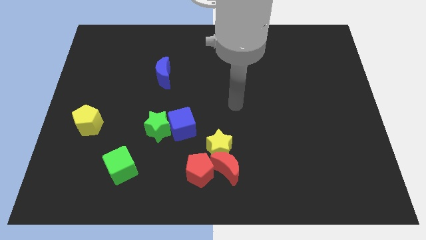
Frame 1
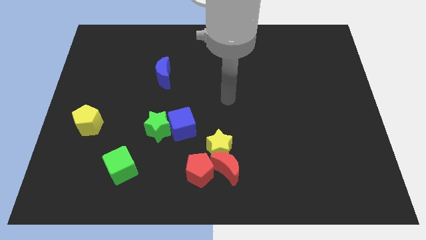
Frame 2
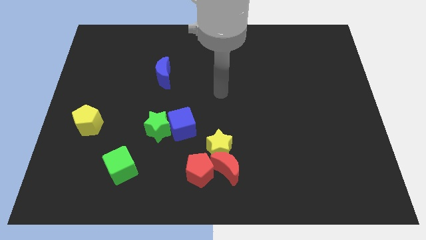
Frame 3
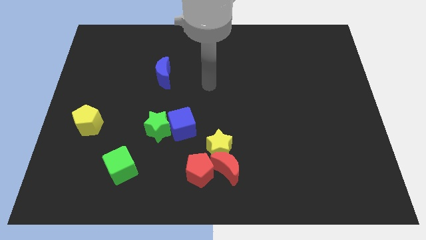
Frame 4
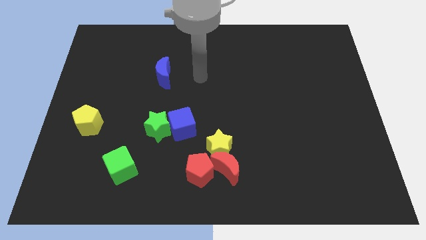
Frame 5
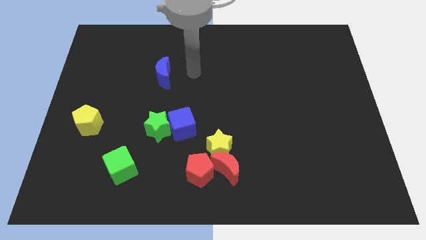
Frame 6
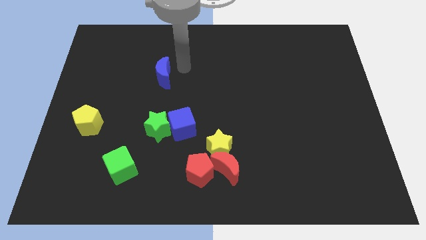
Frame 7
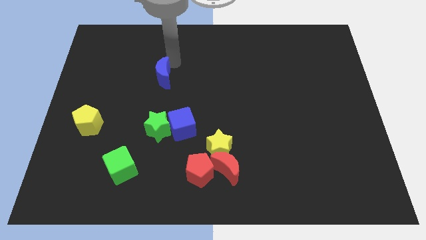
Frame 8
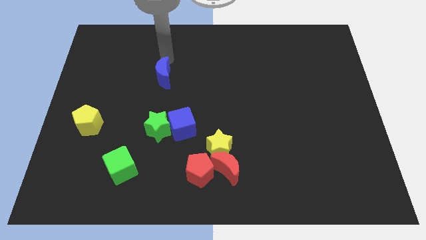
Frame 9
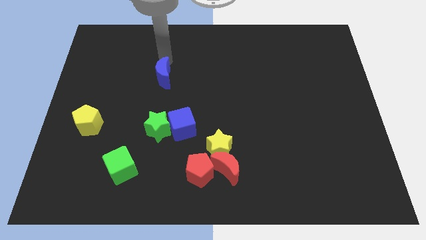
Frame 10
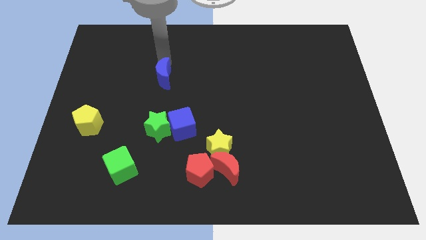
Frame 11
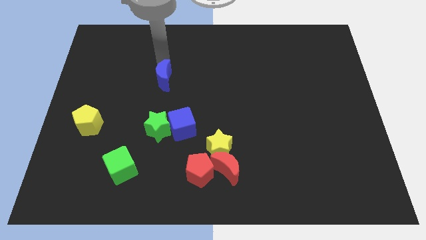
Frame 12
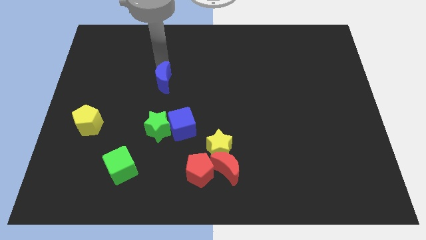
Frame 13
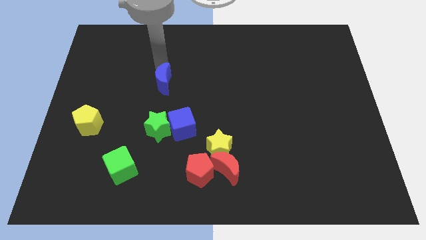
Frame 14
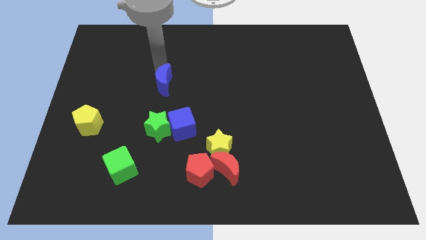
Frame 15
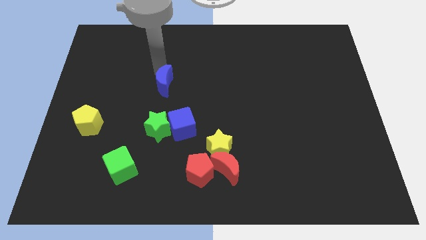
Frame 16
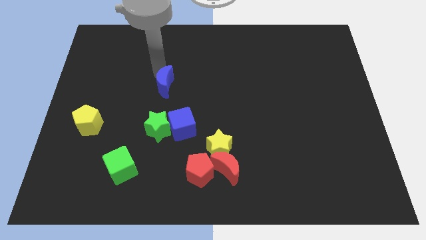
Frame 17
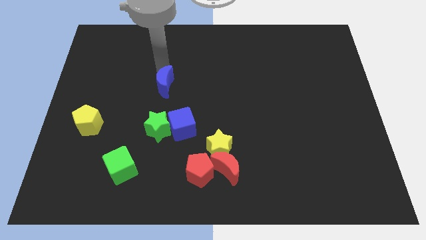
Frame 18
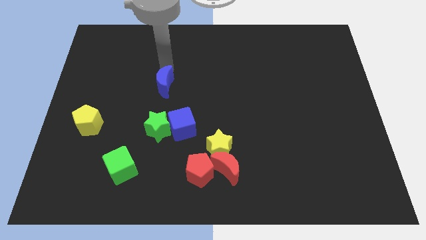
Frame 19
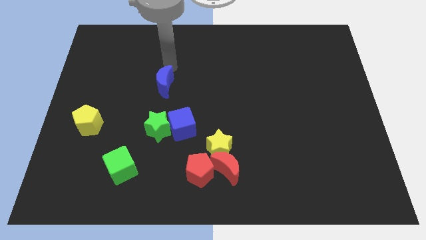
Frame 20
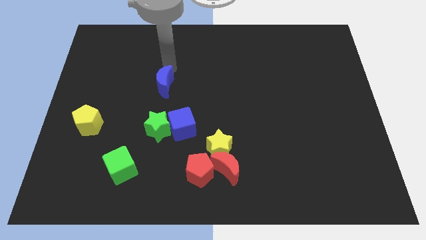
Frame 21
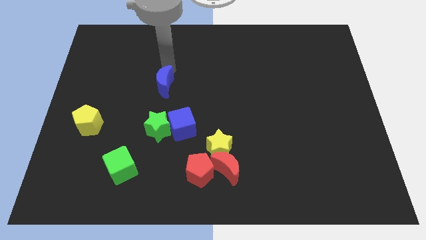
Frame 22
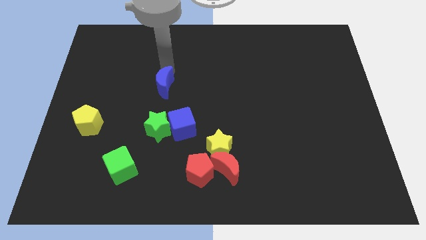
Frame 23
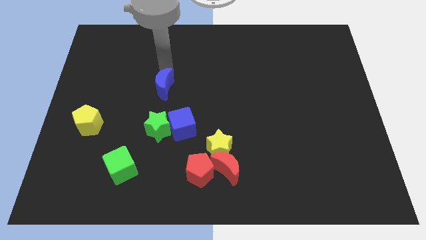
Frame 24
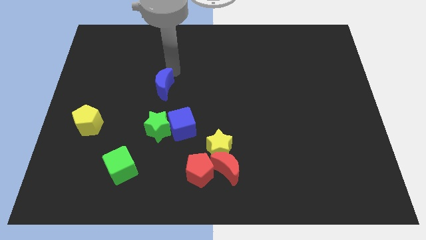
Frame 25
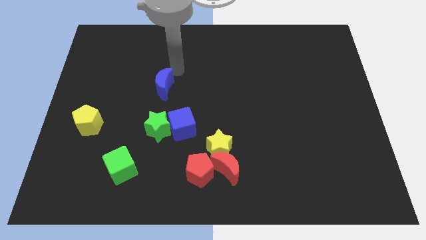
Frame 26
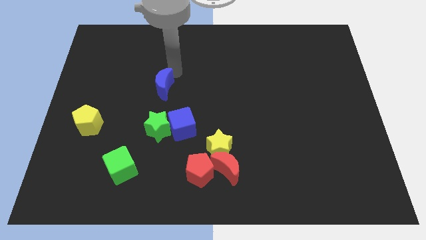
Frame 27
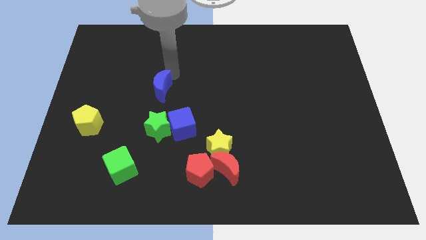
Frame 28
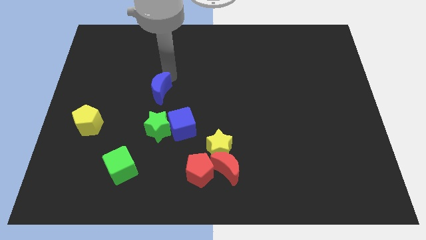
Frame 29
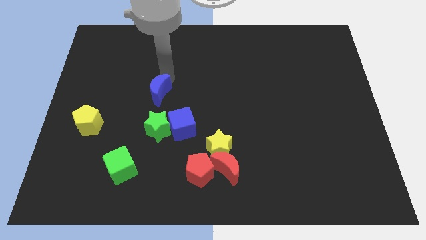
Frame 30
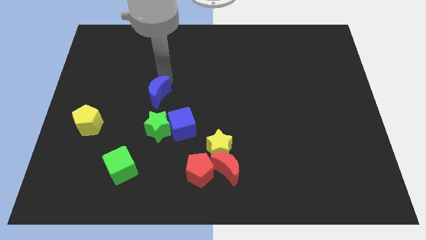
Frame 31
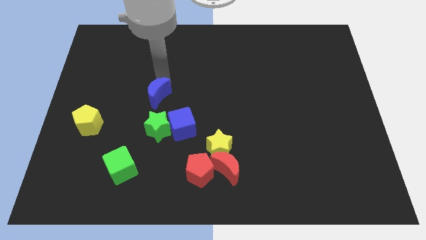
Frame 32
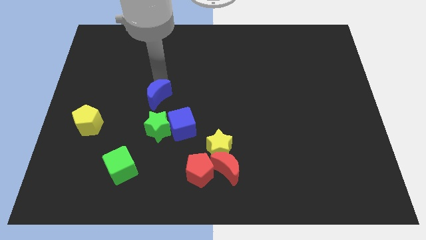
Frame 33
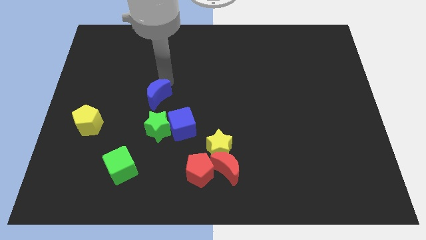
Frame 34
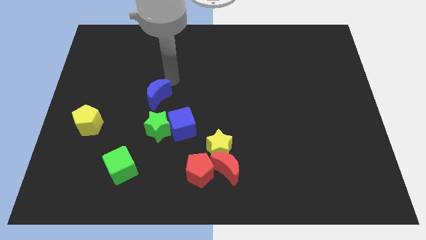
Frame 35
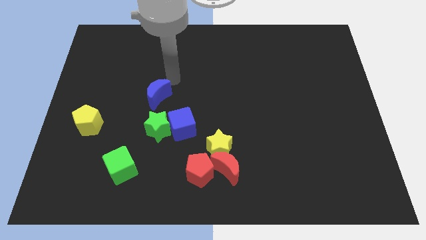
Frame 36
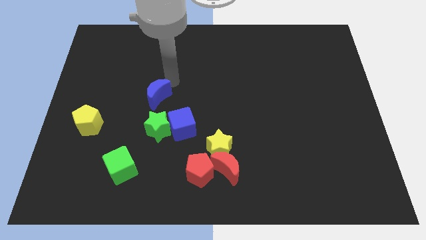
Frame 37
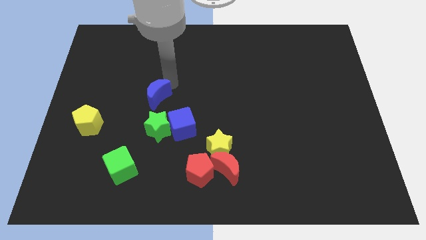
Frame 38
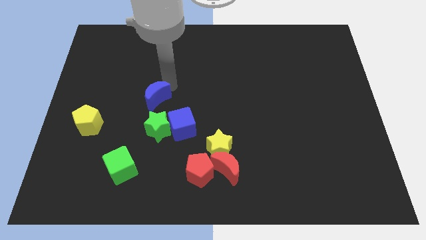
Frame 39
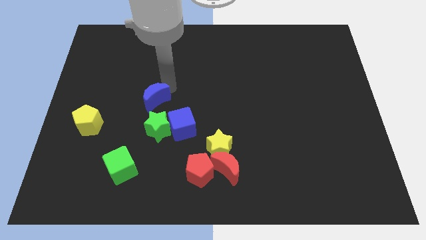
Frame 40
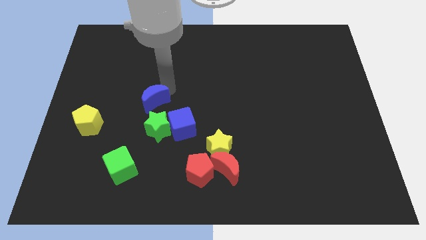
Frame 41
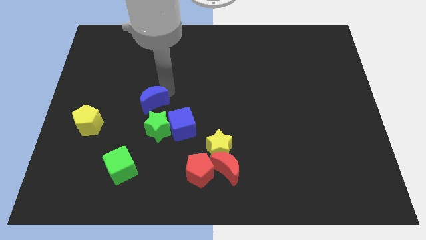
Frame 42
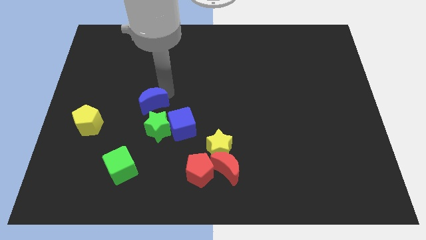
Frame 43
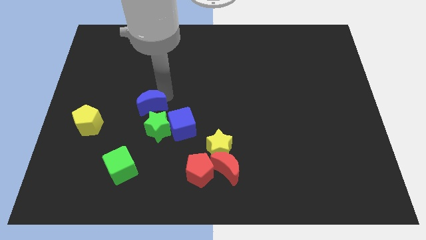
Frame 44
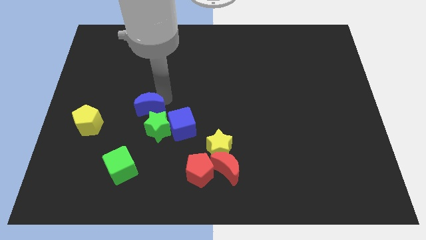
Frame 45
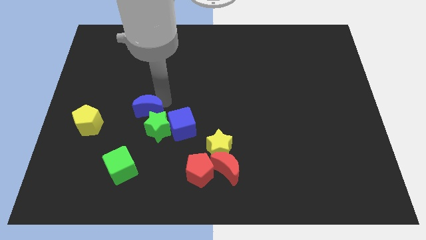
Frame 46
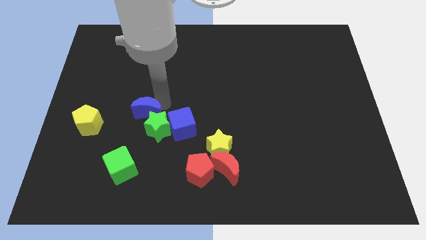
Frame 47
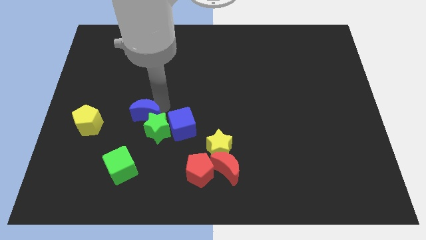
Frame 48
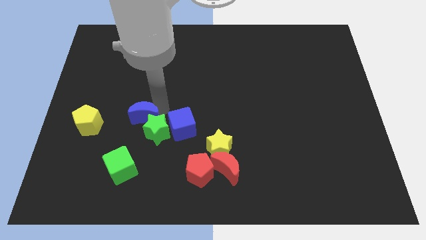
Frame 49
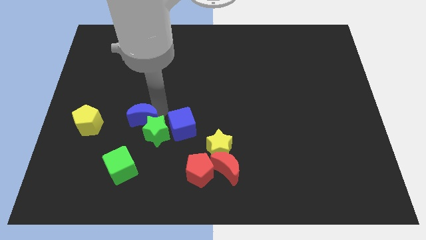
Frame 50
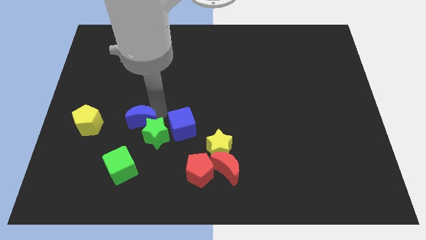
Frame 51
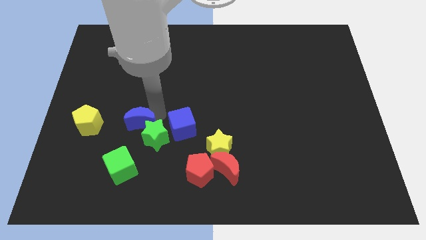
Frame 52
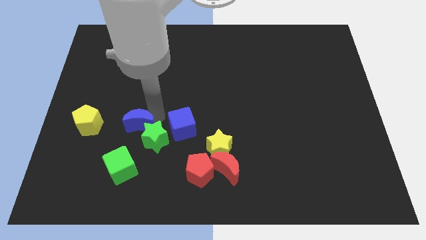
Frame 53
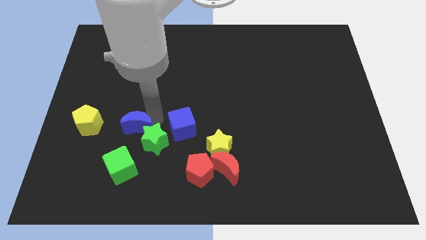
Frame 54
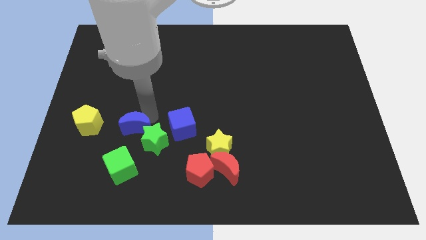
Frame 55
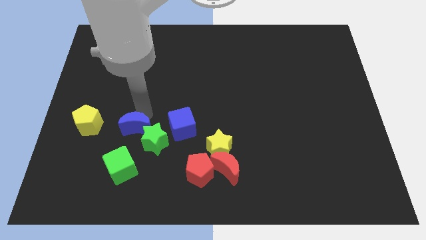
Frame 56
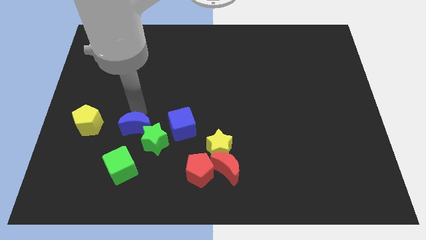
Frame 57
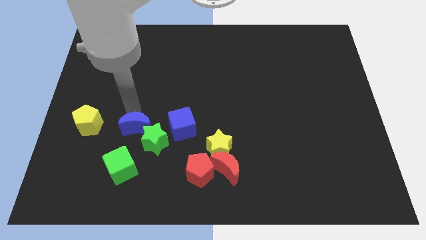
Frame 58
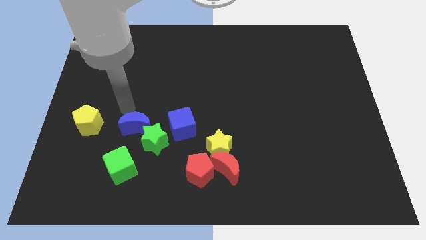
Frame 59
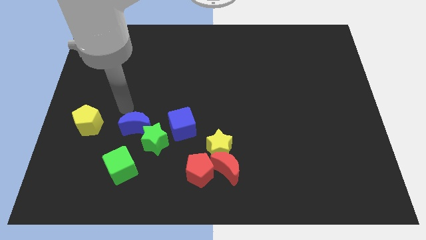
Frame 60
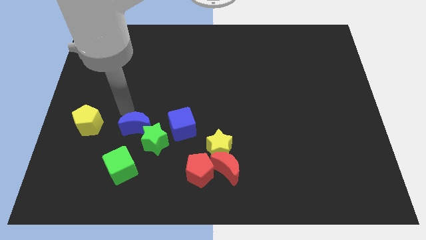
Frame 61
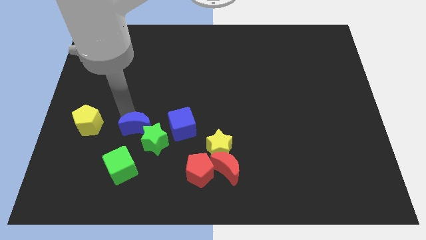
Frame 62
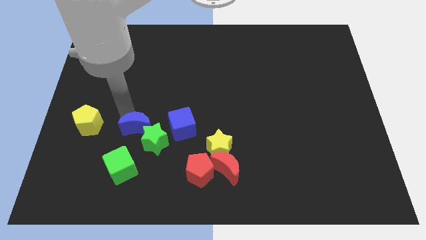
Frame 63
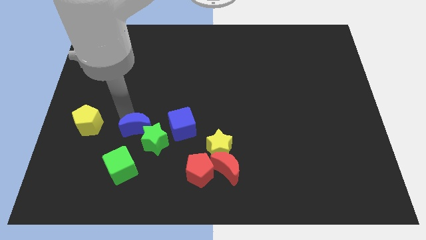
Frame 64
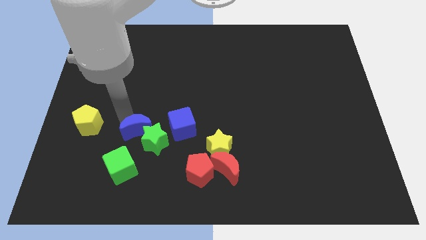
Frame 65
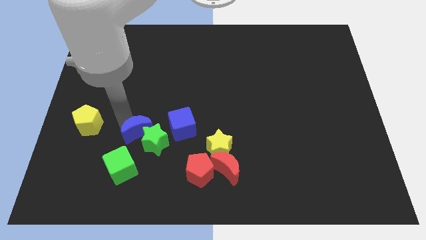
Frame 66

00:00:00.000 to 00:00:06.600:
push the blue moon diagonally up and to the right of the green cube

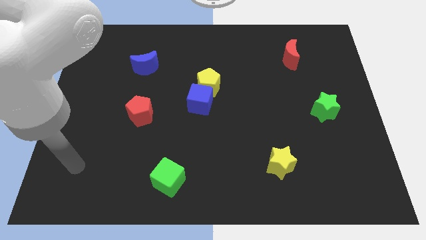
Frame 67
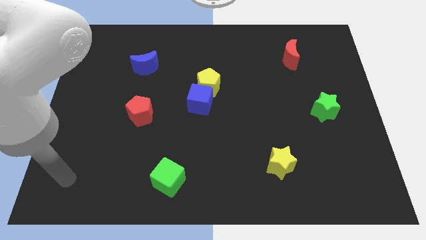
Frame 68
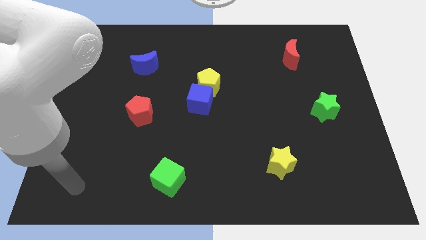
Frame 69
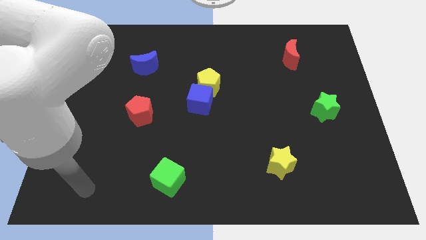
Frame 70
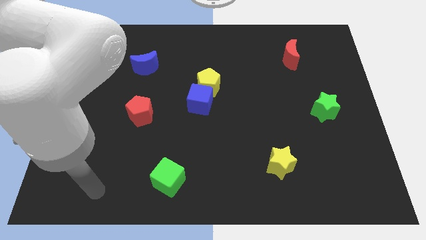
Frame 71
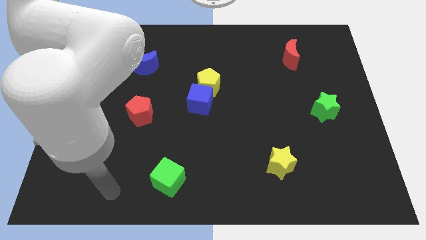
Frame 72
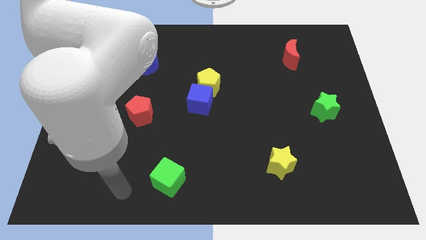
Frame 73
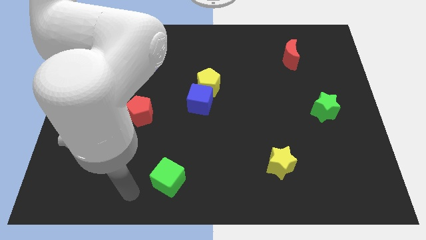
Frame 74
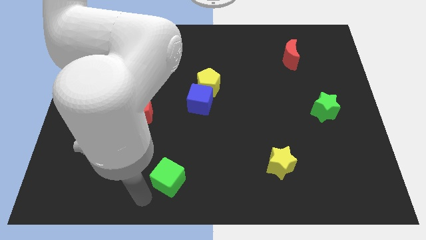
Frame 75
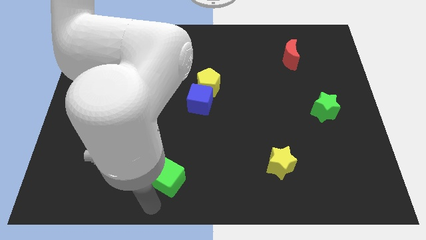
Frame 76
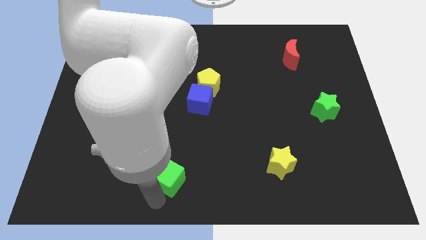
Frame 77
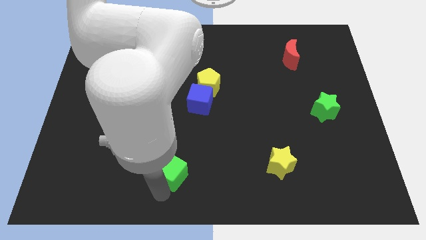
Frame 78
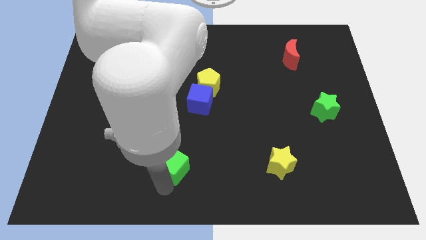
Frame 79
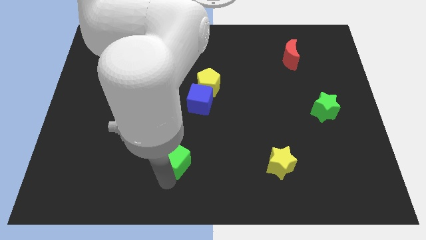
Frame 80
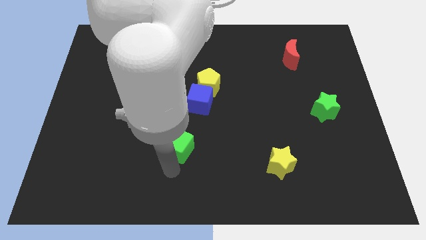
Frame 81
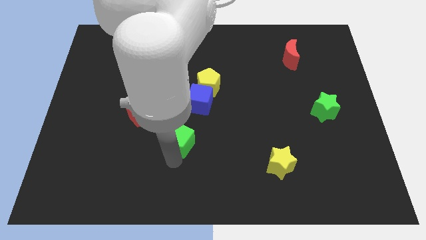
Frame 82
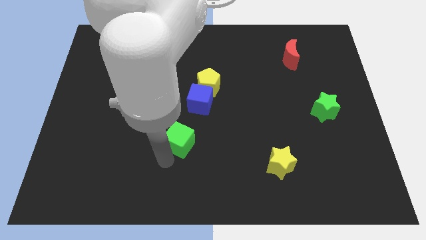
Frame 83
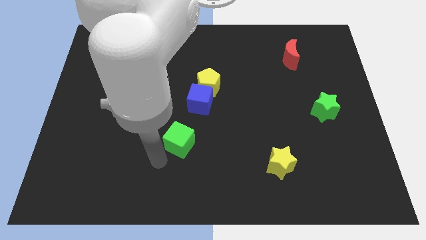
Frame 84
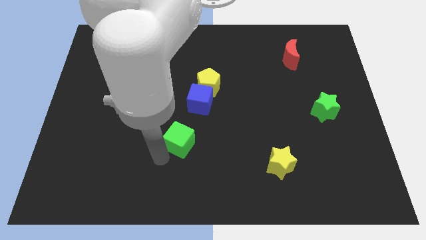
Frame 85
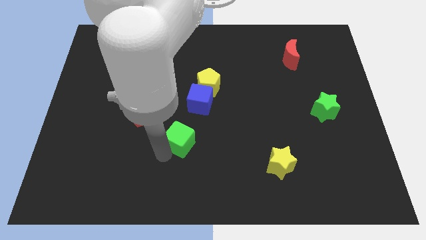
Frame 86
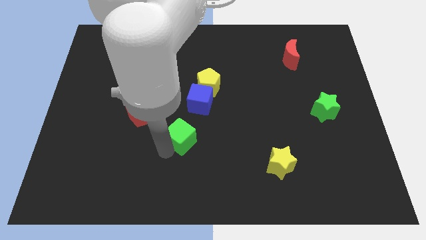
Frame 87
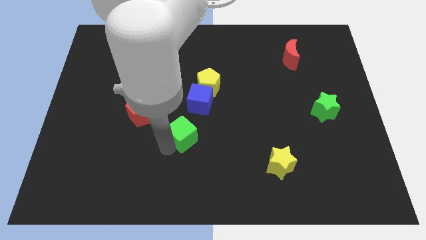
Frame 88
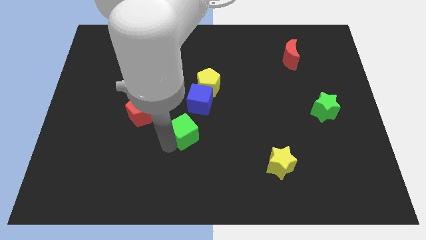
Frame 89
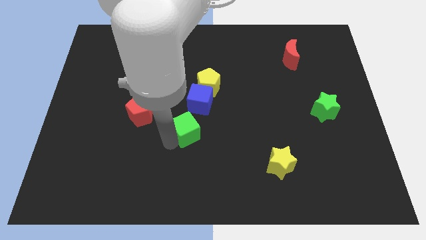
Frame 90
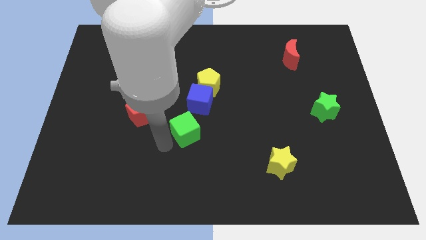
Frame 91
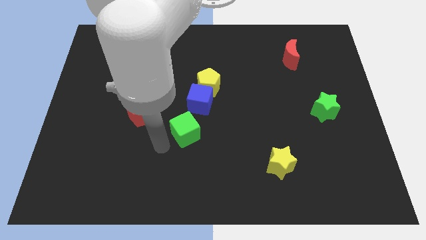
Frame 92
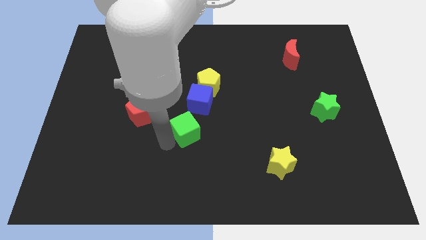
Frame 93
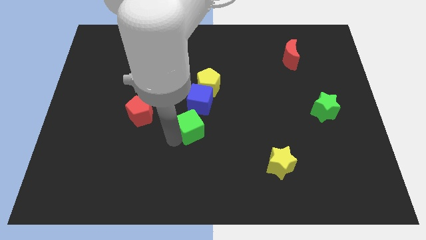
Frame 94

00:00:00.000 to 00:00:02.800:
move the green cube to the bottom of the yellow pentagon
